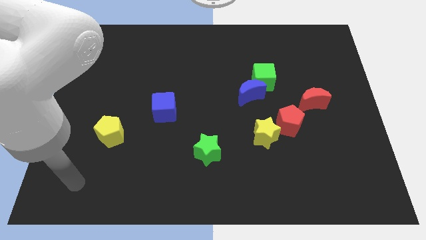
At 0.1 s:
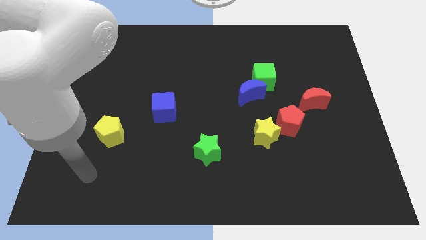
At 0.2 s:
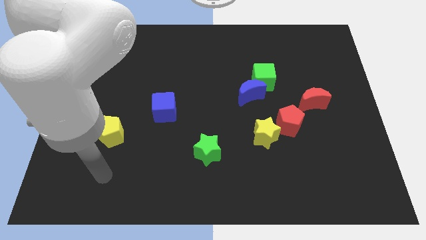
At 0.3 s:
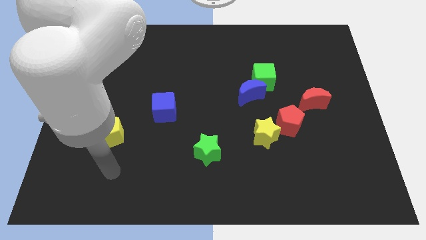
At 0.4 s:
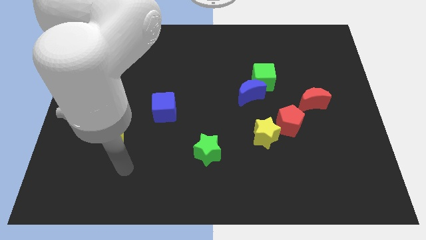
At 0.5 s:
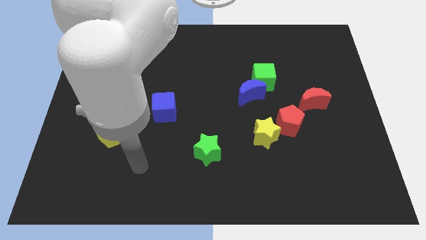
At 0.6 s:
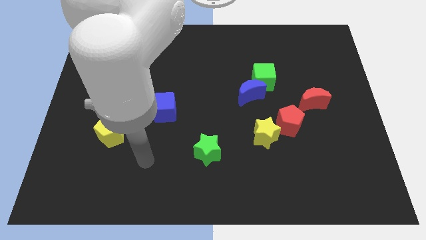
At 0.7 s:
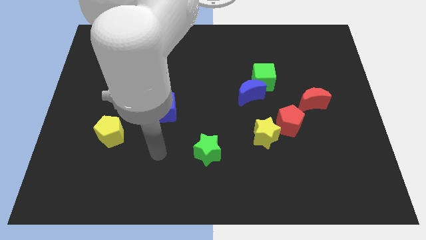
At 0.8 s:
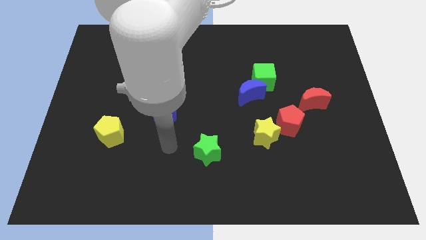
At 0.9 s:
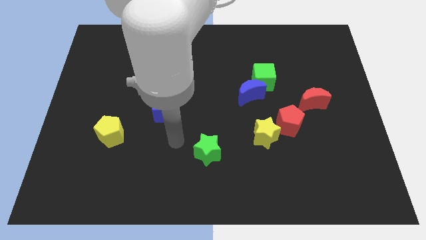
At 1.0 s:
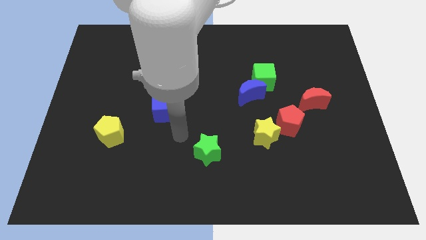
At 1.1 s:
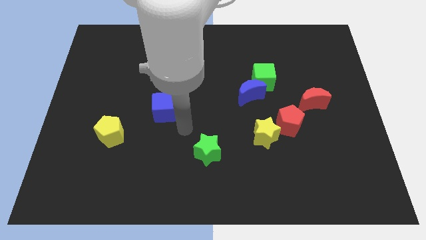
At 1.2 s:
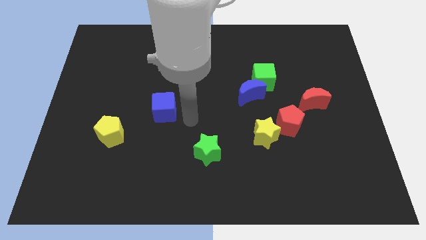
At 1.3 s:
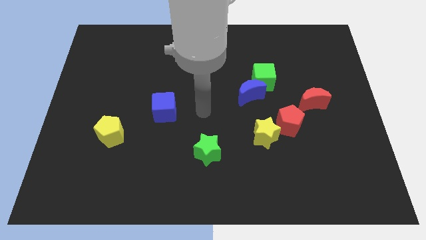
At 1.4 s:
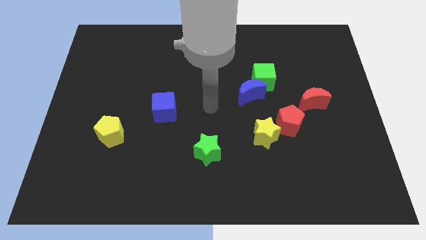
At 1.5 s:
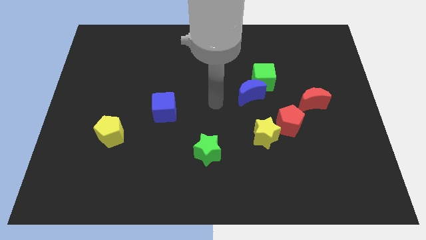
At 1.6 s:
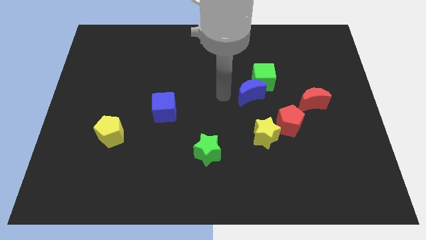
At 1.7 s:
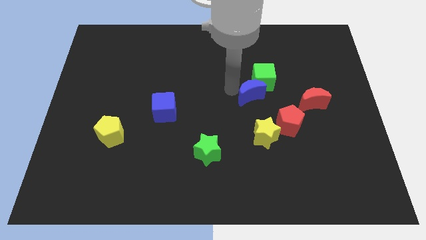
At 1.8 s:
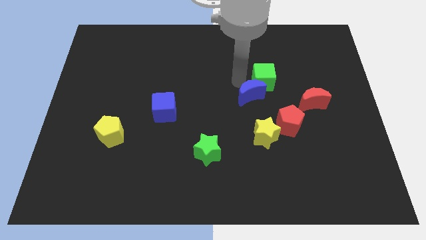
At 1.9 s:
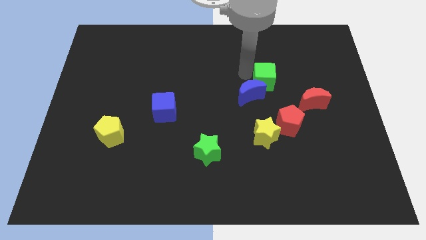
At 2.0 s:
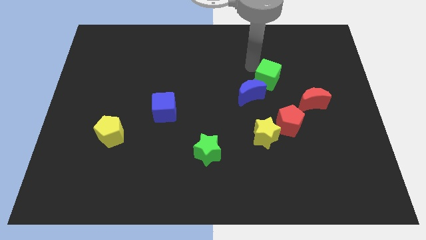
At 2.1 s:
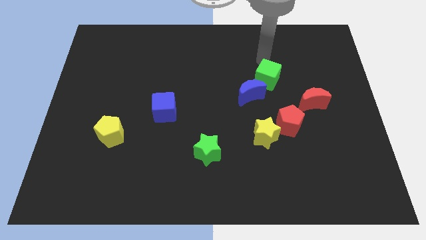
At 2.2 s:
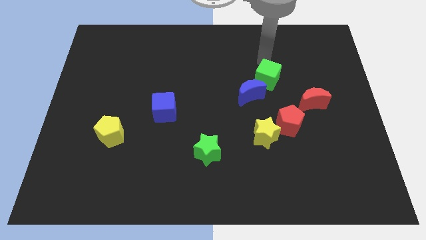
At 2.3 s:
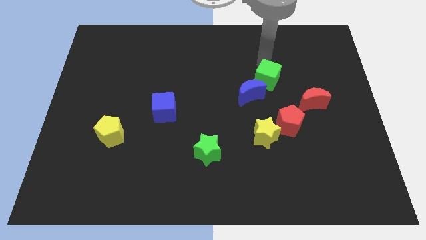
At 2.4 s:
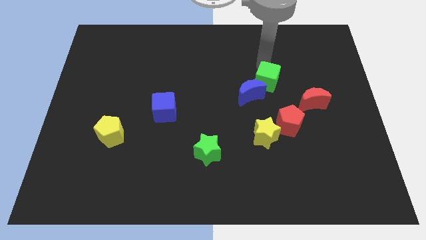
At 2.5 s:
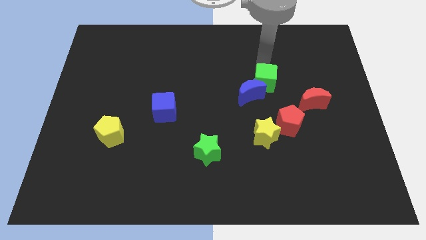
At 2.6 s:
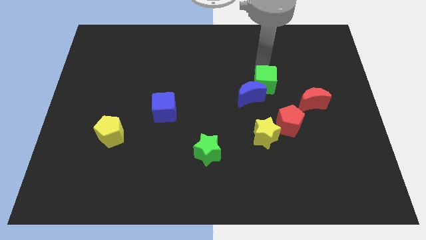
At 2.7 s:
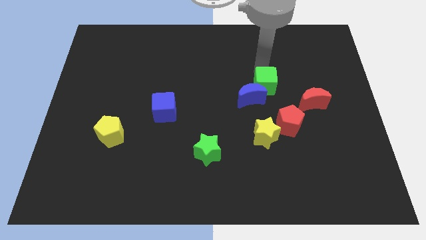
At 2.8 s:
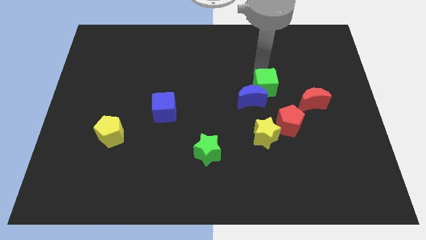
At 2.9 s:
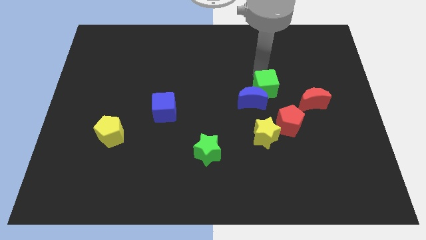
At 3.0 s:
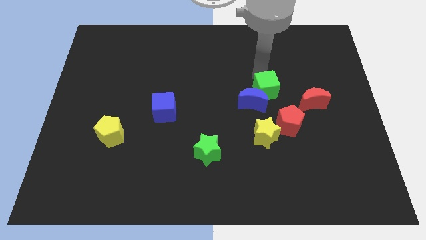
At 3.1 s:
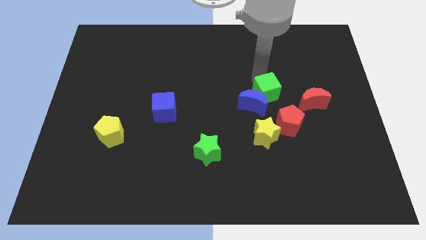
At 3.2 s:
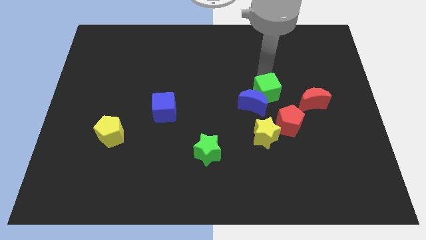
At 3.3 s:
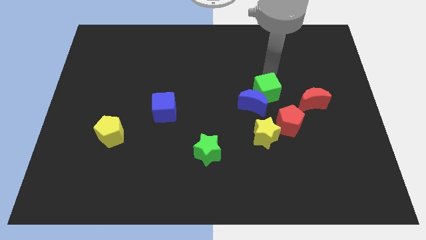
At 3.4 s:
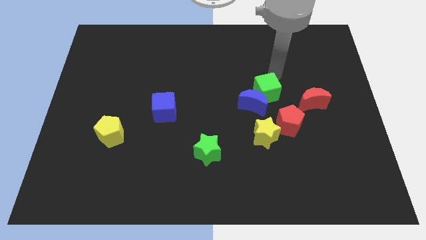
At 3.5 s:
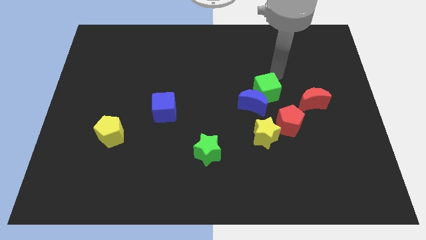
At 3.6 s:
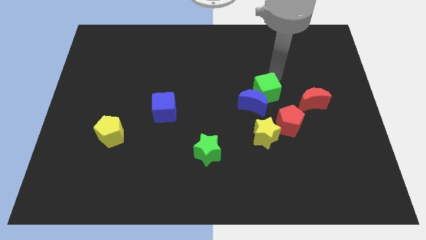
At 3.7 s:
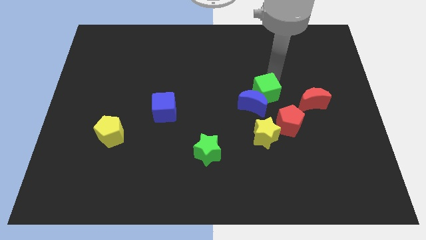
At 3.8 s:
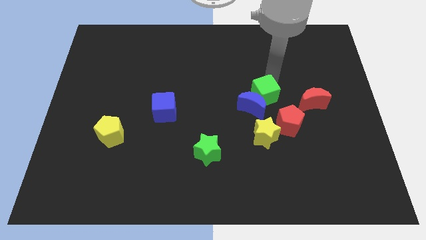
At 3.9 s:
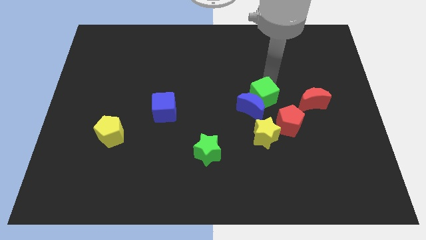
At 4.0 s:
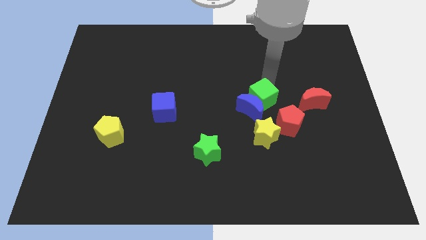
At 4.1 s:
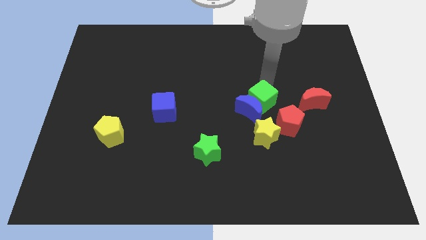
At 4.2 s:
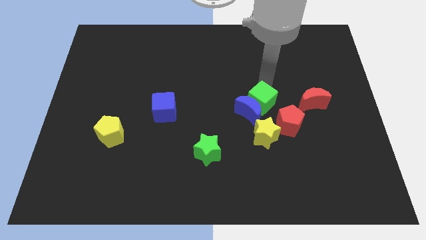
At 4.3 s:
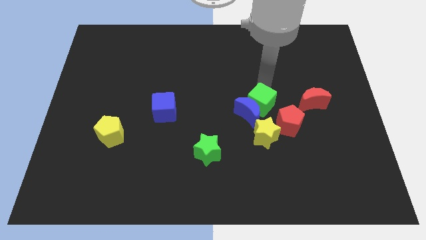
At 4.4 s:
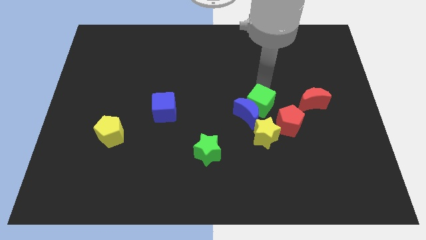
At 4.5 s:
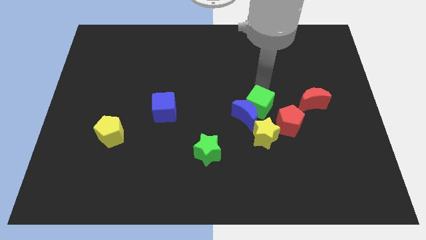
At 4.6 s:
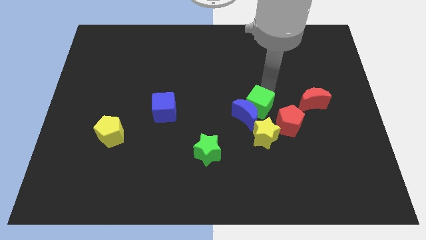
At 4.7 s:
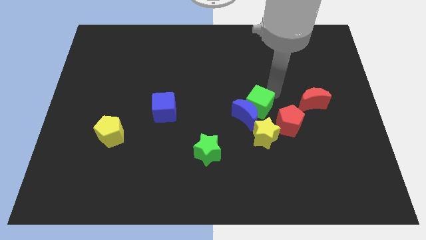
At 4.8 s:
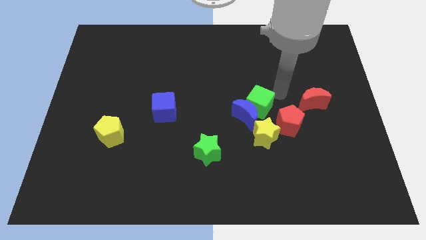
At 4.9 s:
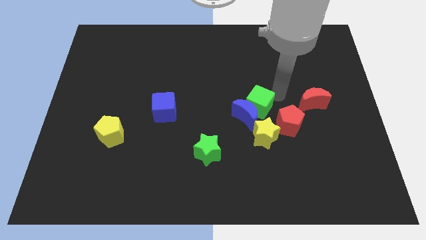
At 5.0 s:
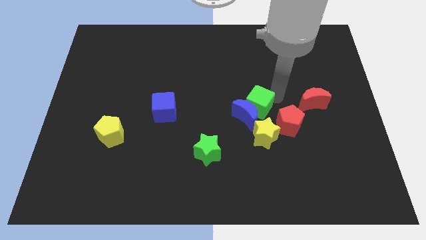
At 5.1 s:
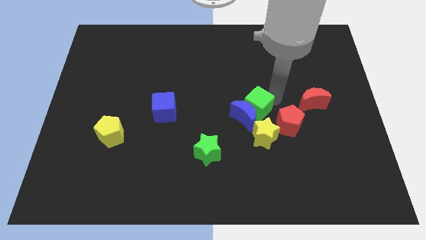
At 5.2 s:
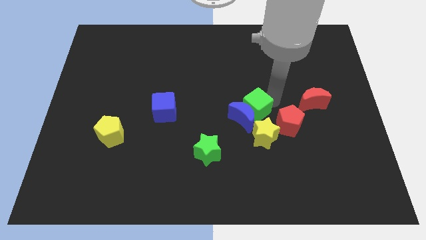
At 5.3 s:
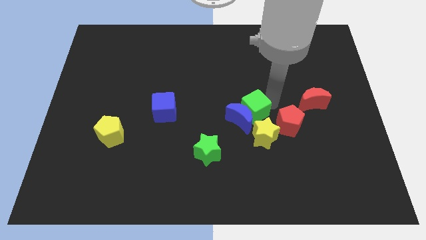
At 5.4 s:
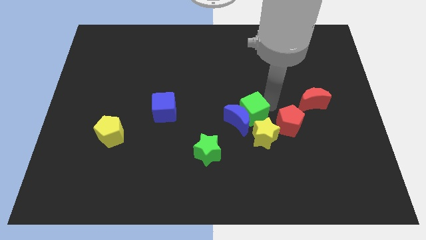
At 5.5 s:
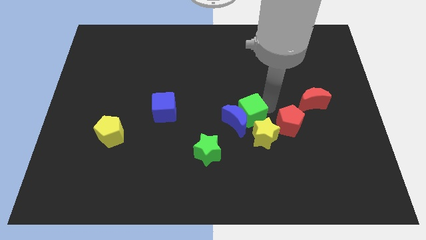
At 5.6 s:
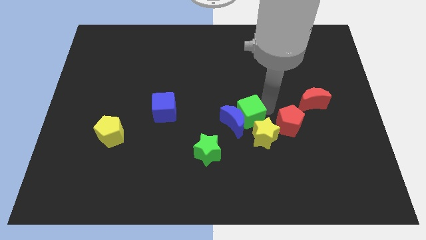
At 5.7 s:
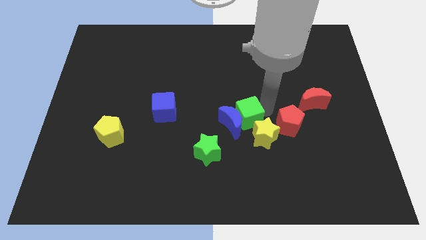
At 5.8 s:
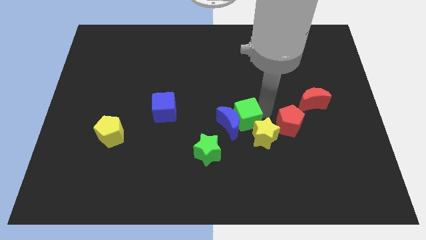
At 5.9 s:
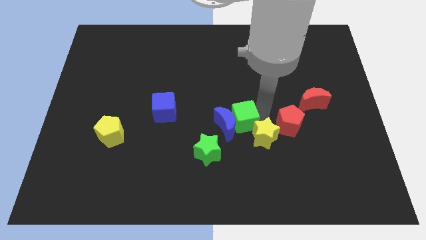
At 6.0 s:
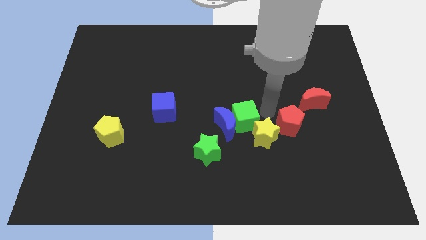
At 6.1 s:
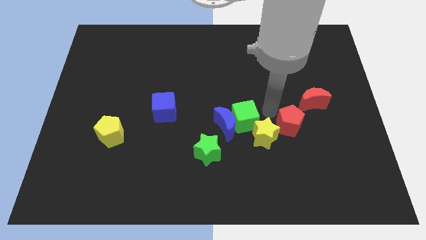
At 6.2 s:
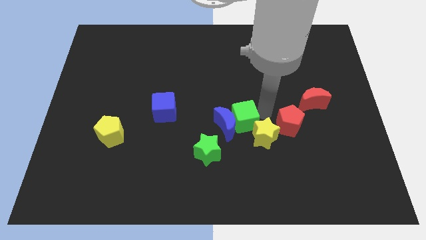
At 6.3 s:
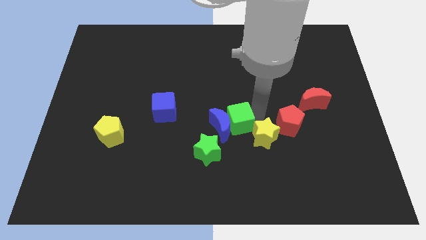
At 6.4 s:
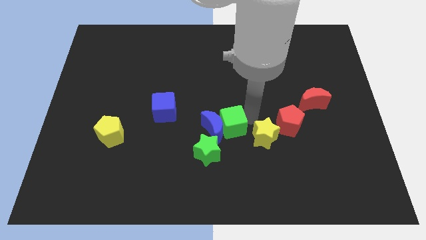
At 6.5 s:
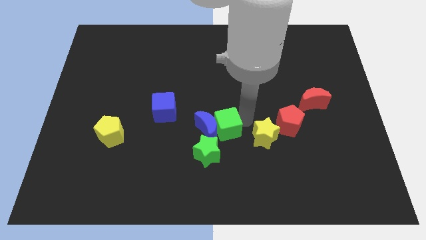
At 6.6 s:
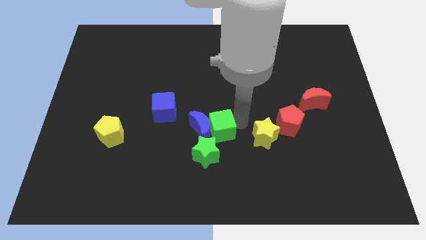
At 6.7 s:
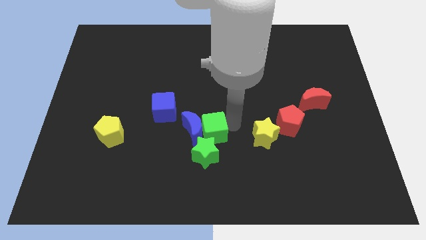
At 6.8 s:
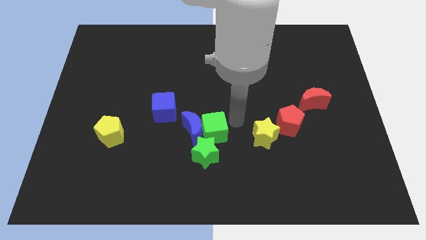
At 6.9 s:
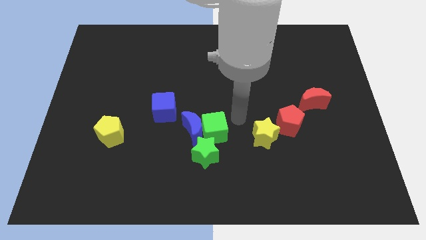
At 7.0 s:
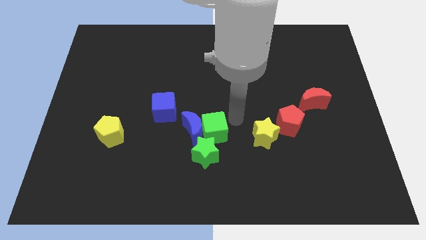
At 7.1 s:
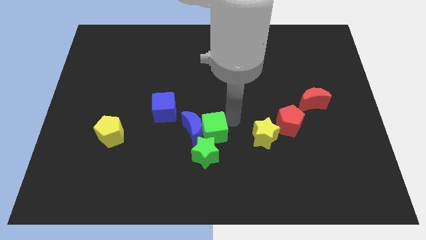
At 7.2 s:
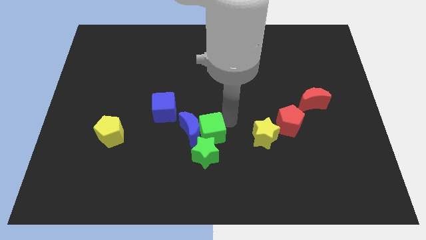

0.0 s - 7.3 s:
push the green cube down and to the left

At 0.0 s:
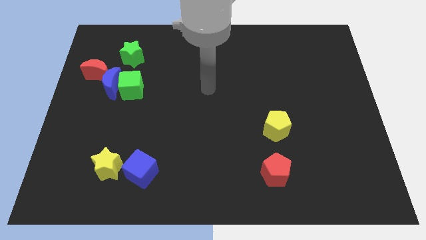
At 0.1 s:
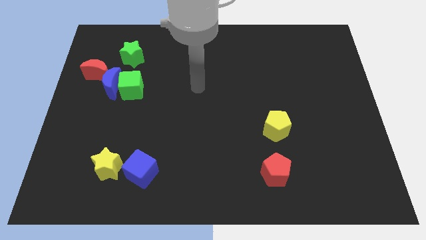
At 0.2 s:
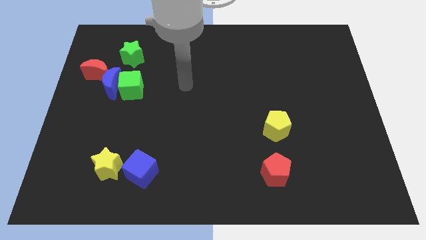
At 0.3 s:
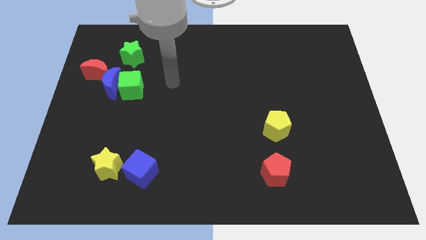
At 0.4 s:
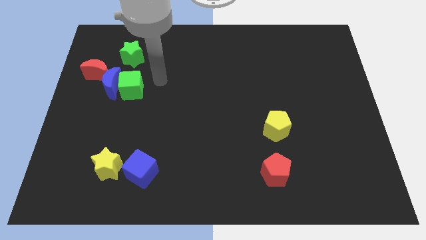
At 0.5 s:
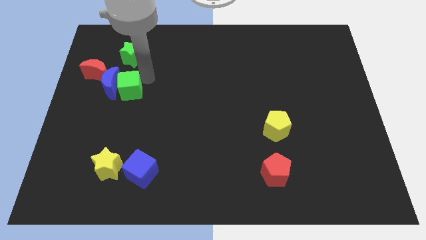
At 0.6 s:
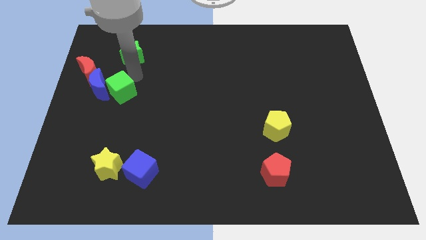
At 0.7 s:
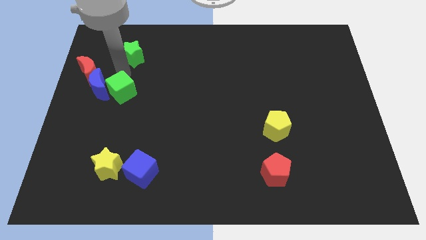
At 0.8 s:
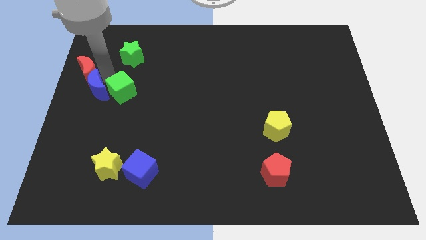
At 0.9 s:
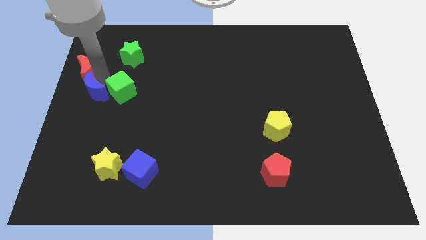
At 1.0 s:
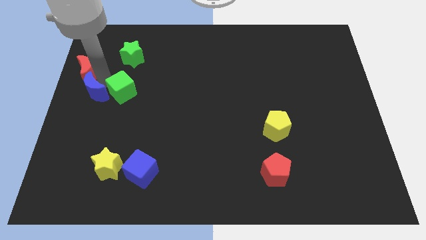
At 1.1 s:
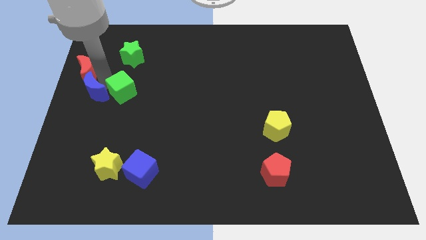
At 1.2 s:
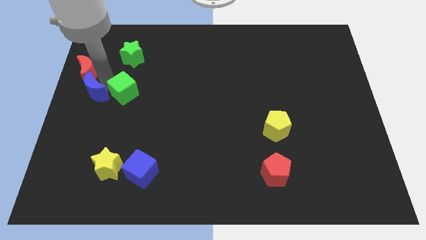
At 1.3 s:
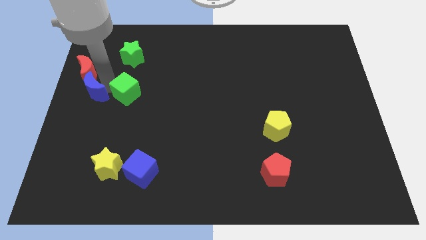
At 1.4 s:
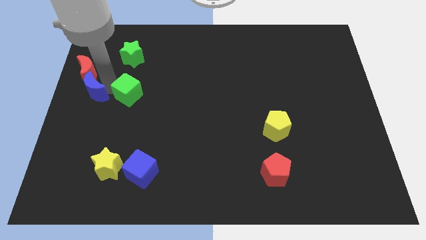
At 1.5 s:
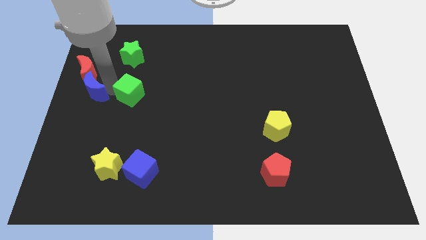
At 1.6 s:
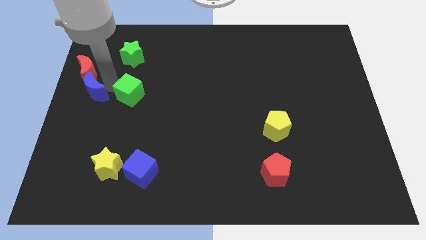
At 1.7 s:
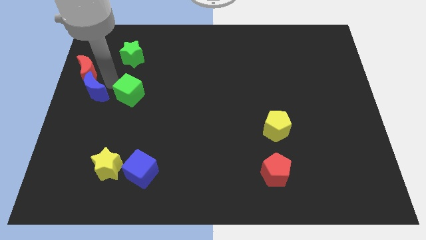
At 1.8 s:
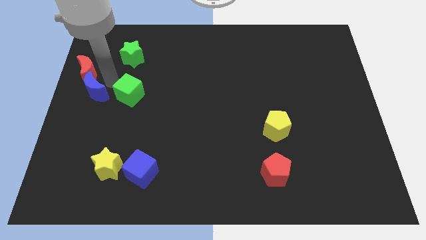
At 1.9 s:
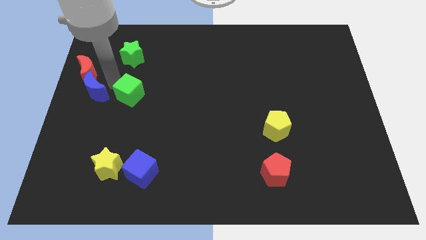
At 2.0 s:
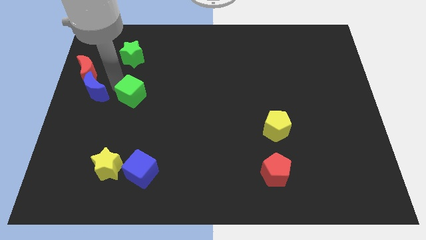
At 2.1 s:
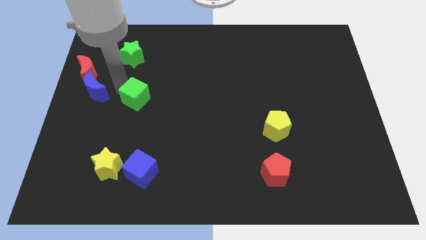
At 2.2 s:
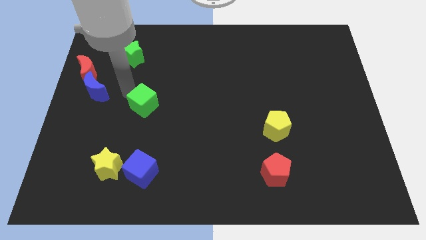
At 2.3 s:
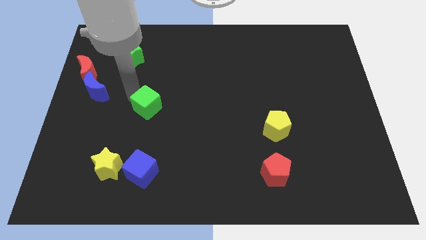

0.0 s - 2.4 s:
slightly push the green cube downwards and right
